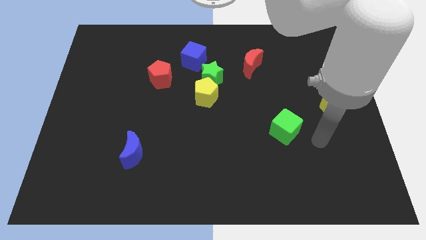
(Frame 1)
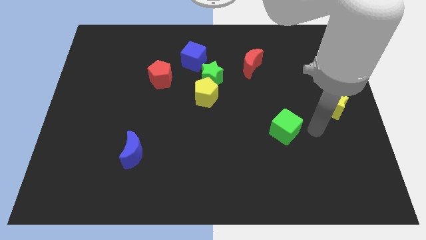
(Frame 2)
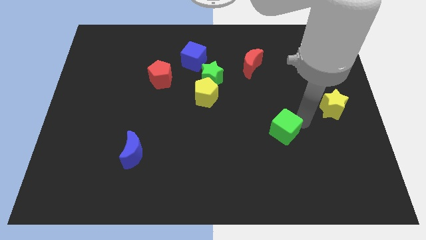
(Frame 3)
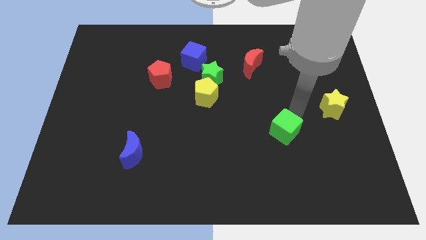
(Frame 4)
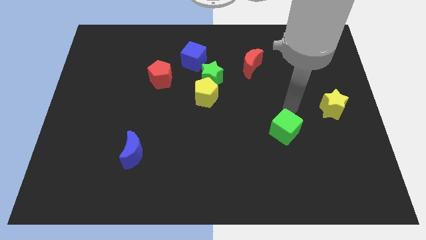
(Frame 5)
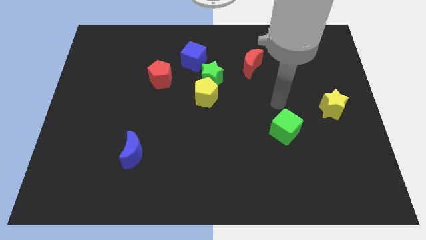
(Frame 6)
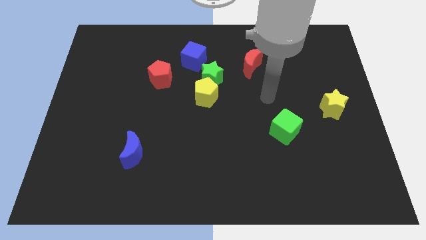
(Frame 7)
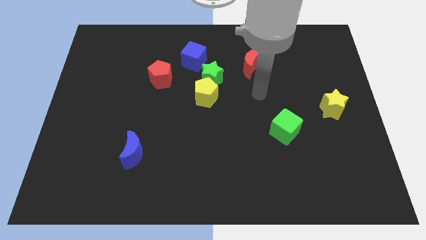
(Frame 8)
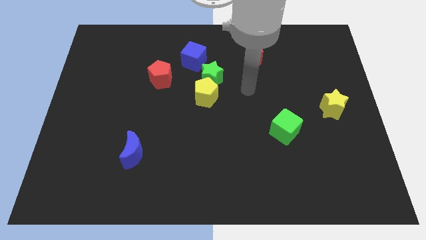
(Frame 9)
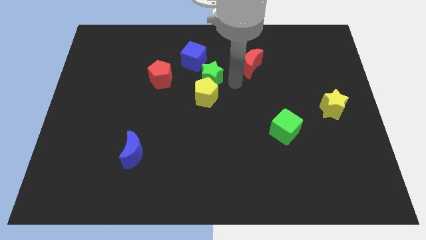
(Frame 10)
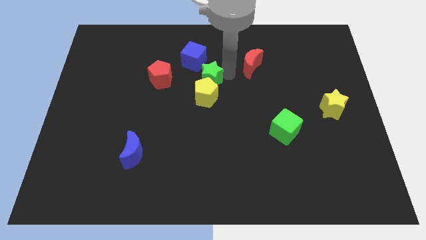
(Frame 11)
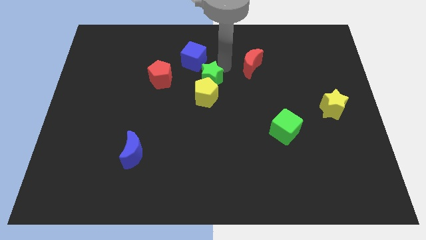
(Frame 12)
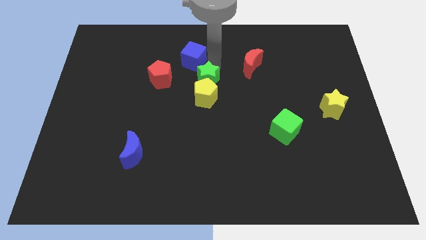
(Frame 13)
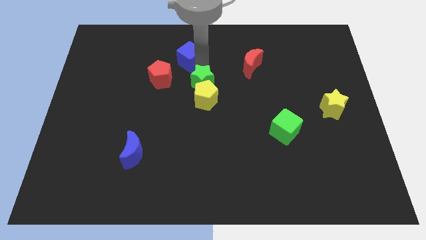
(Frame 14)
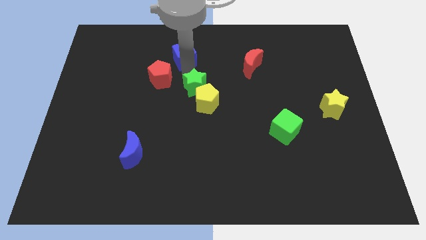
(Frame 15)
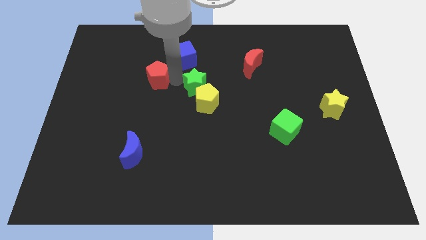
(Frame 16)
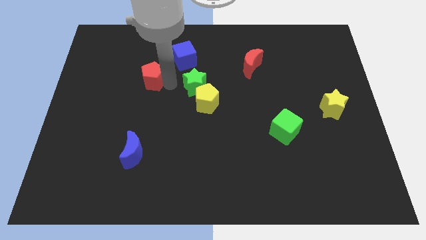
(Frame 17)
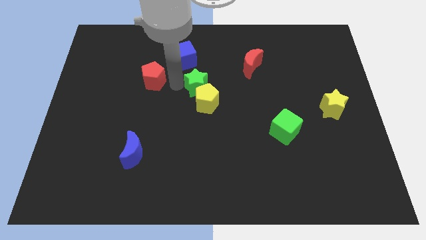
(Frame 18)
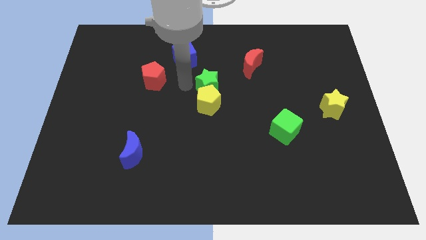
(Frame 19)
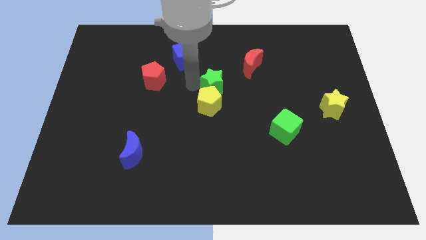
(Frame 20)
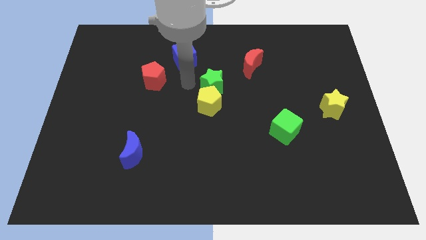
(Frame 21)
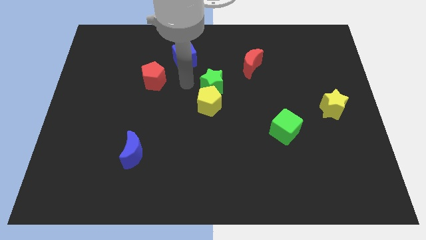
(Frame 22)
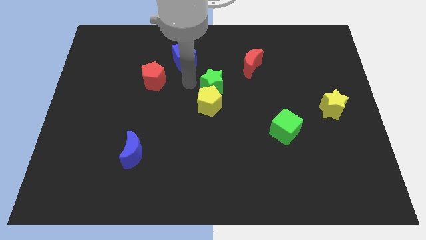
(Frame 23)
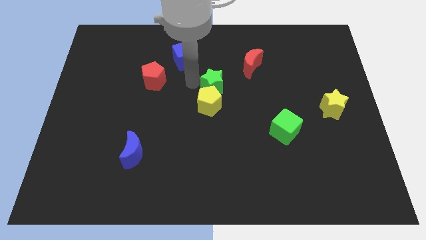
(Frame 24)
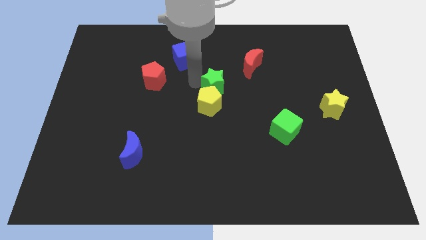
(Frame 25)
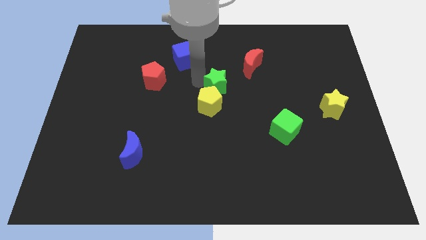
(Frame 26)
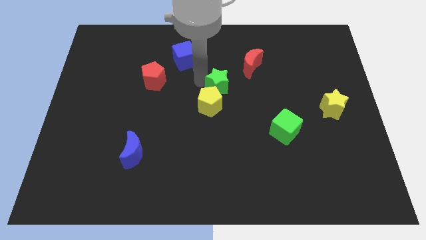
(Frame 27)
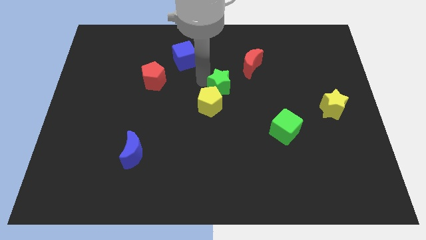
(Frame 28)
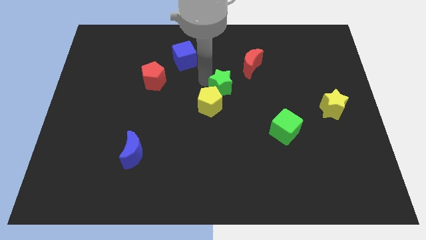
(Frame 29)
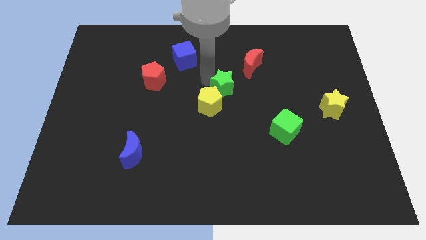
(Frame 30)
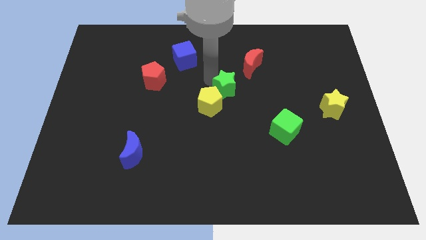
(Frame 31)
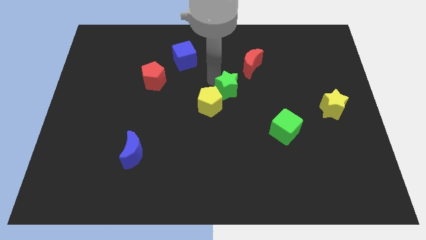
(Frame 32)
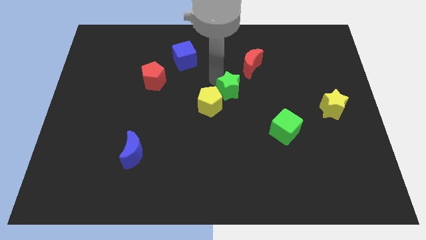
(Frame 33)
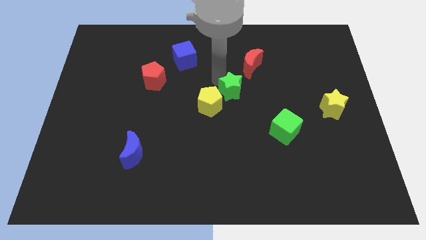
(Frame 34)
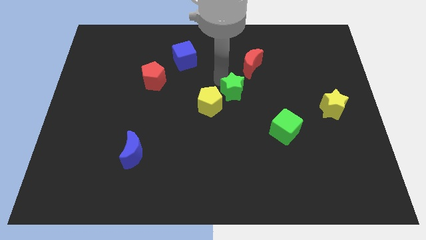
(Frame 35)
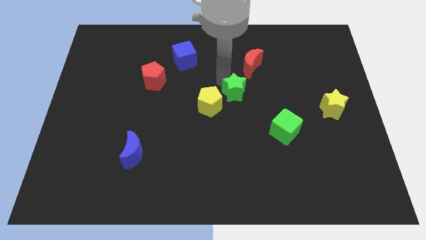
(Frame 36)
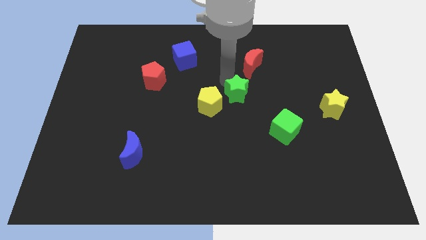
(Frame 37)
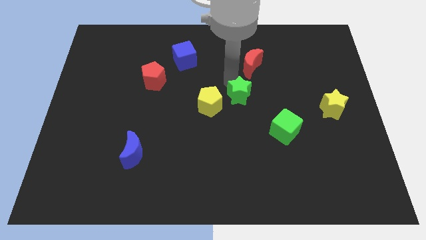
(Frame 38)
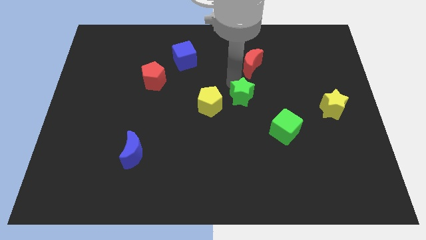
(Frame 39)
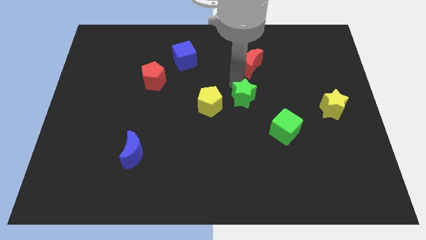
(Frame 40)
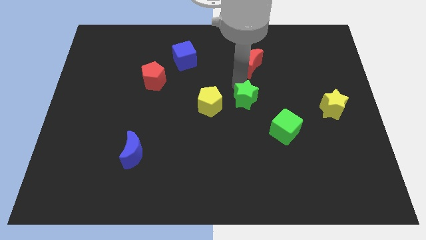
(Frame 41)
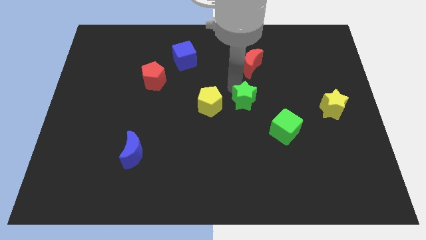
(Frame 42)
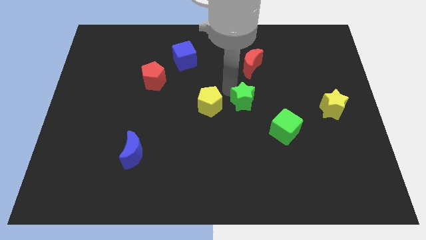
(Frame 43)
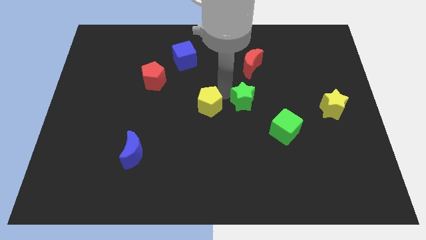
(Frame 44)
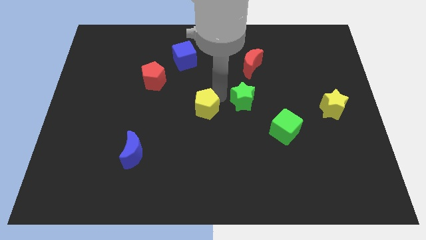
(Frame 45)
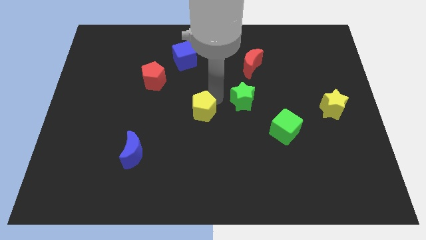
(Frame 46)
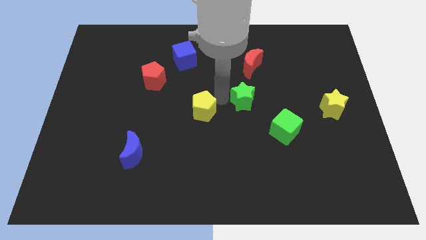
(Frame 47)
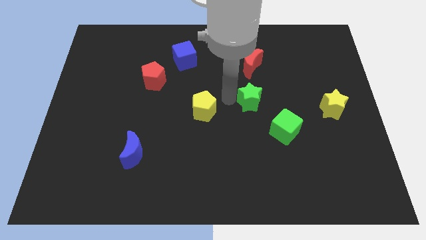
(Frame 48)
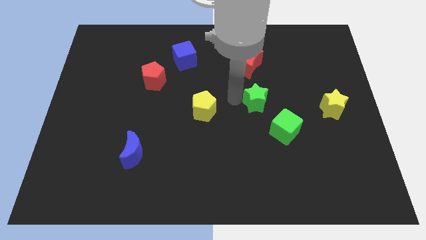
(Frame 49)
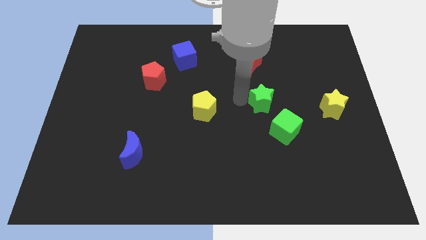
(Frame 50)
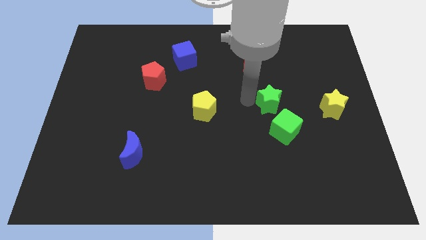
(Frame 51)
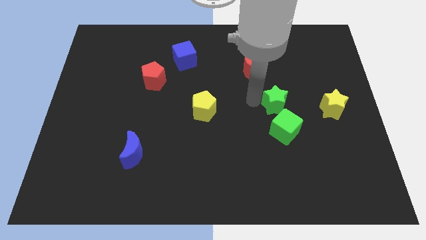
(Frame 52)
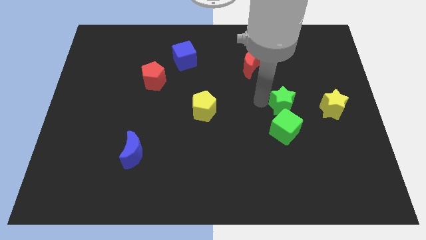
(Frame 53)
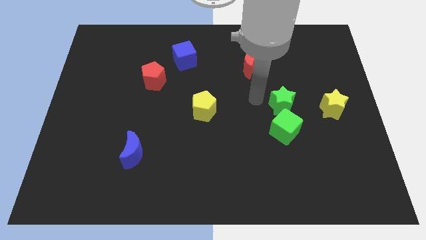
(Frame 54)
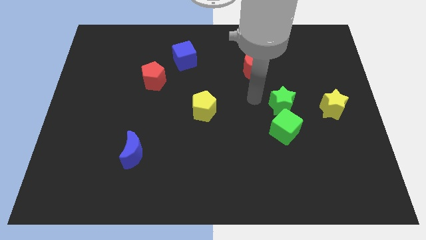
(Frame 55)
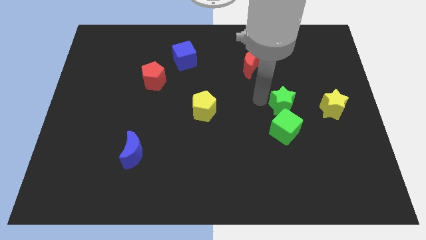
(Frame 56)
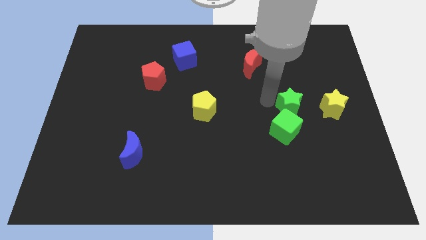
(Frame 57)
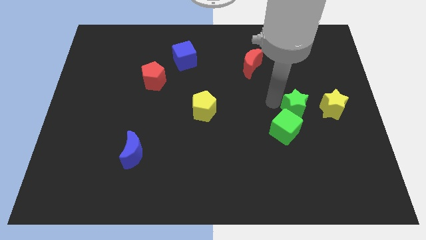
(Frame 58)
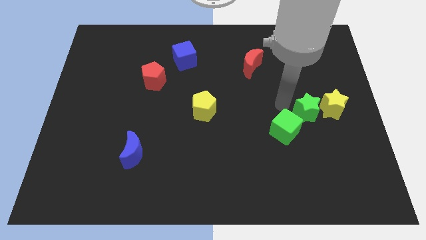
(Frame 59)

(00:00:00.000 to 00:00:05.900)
move the green star towards the yellow star

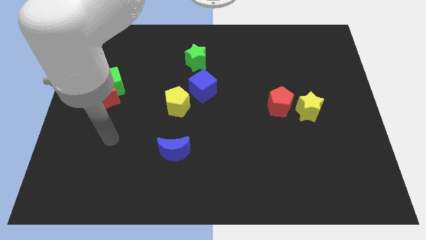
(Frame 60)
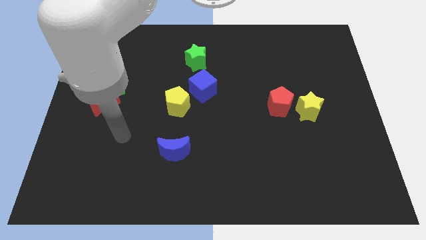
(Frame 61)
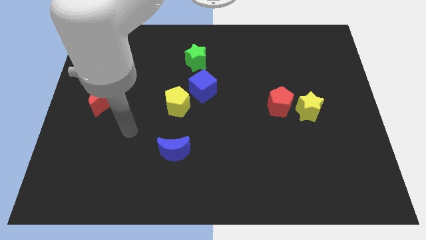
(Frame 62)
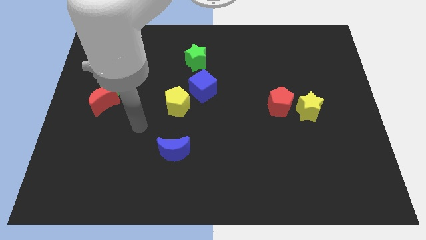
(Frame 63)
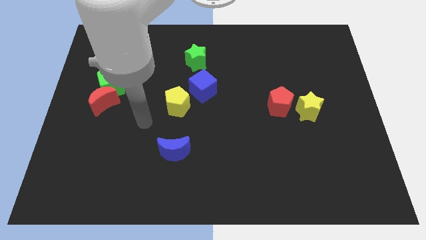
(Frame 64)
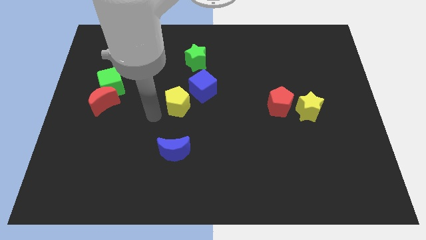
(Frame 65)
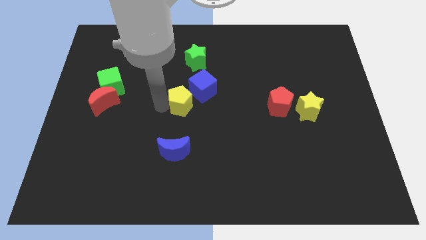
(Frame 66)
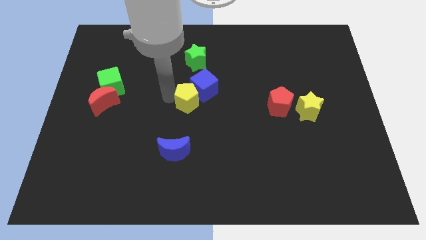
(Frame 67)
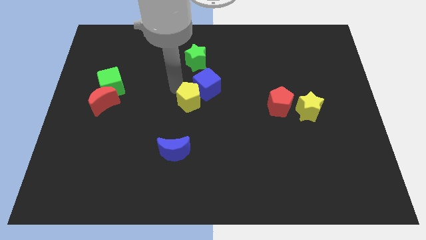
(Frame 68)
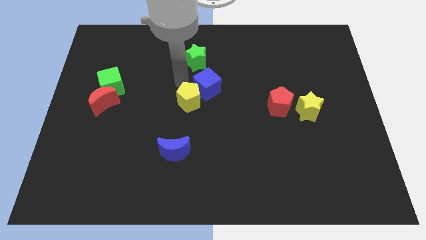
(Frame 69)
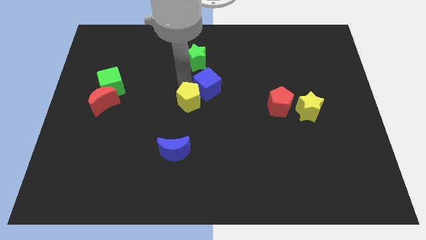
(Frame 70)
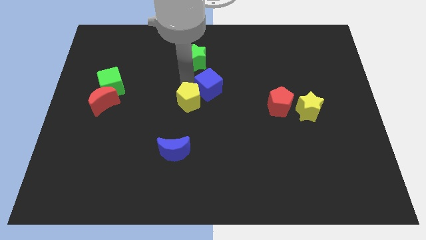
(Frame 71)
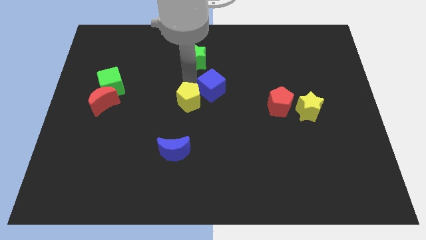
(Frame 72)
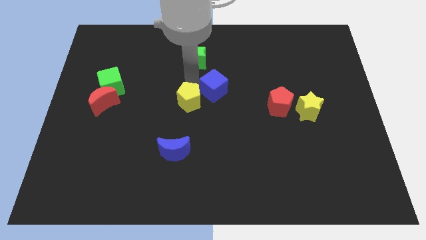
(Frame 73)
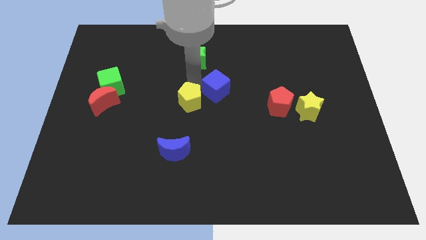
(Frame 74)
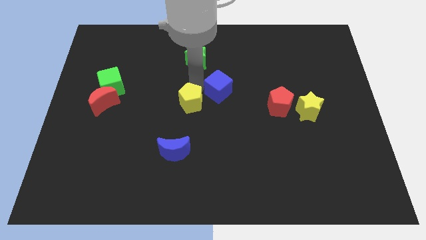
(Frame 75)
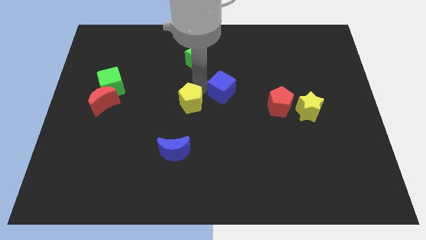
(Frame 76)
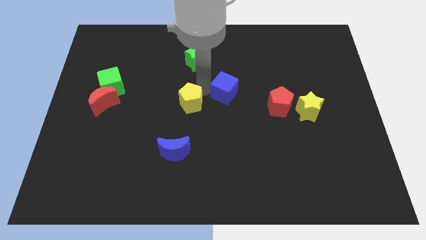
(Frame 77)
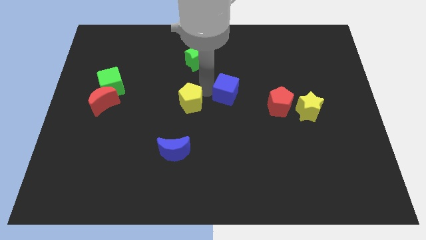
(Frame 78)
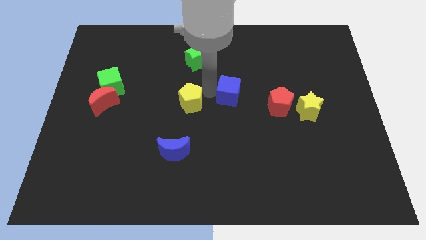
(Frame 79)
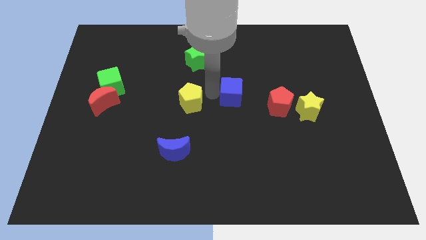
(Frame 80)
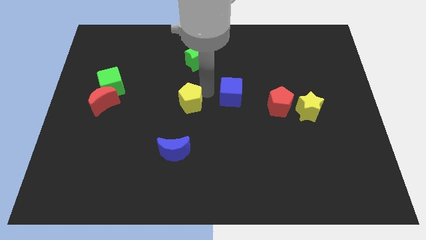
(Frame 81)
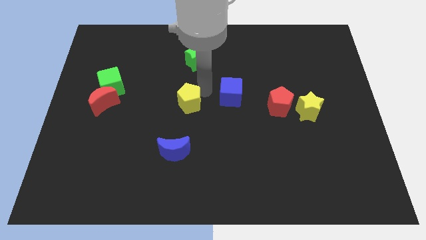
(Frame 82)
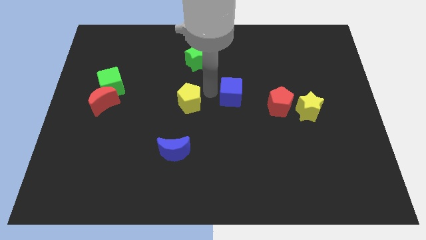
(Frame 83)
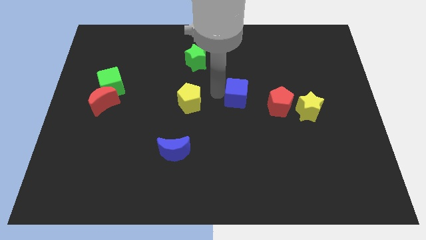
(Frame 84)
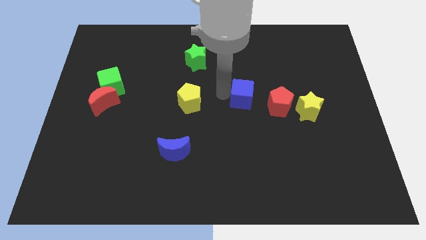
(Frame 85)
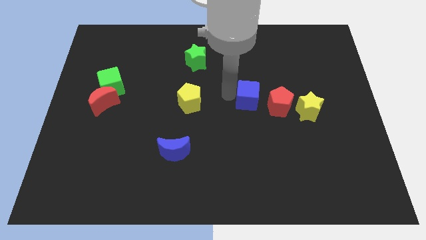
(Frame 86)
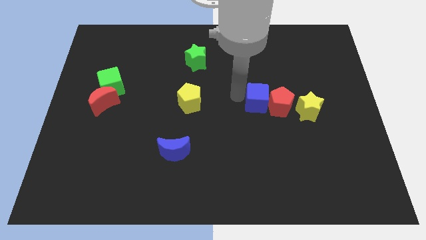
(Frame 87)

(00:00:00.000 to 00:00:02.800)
move the blue cube close to the red pentagon
